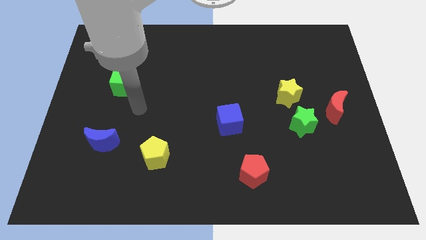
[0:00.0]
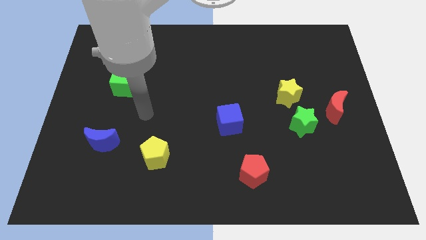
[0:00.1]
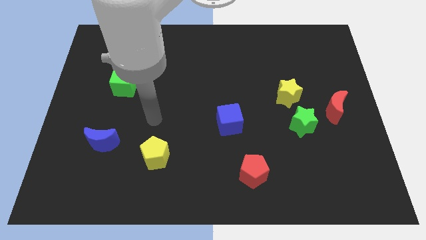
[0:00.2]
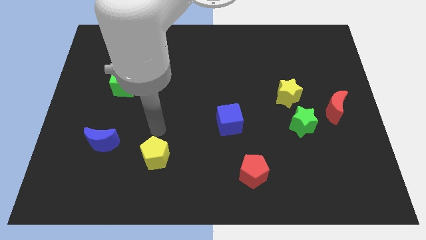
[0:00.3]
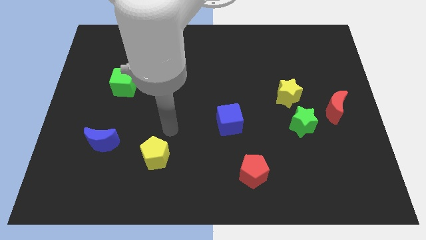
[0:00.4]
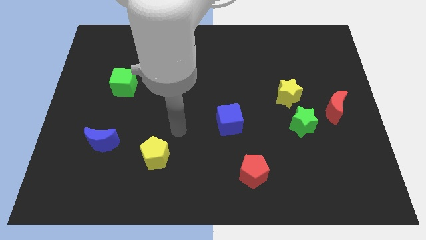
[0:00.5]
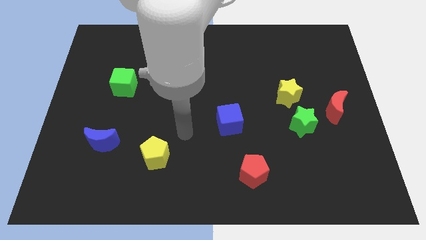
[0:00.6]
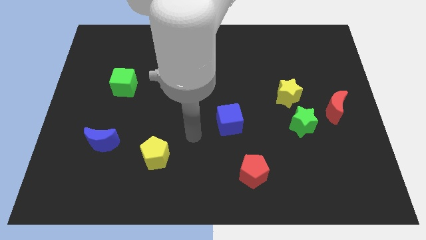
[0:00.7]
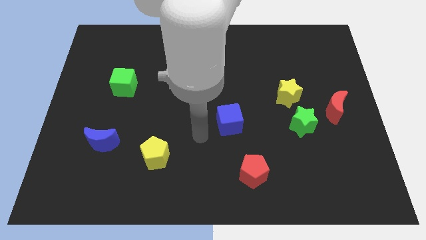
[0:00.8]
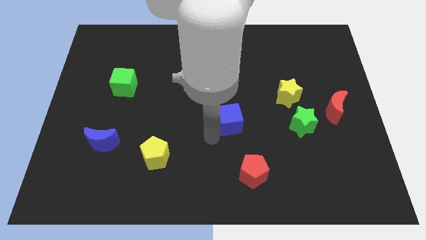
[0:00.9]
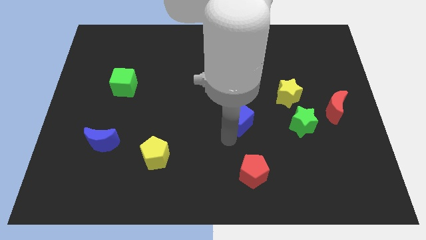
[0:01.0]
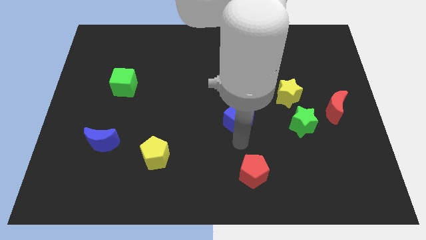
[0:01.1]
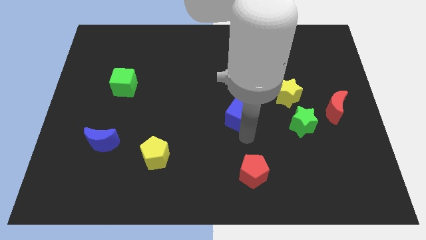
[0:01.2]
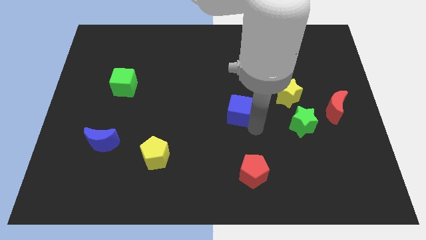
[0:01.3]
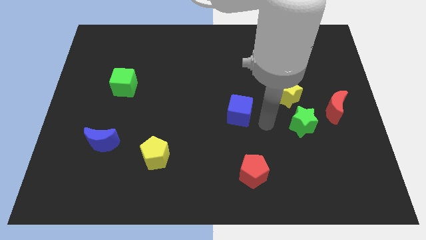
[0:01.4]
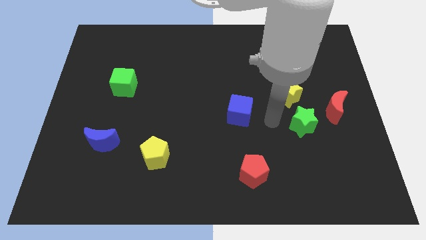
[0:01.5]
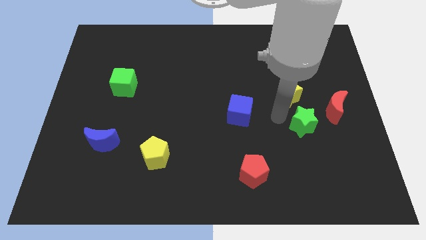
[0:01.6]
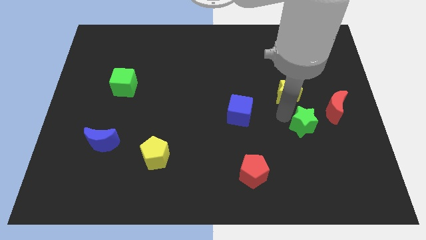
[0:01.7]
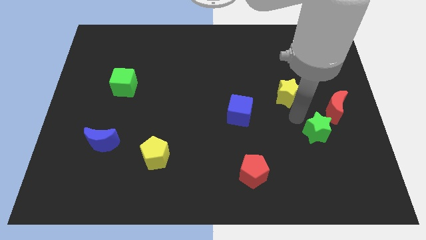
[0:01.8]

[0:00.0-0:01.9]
separate the yellow star from the green star

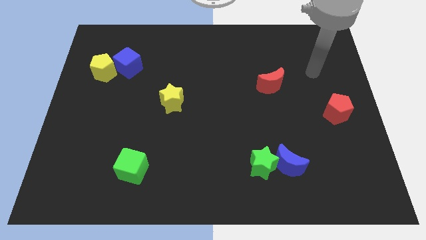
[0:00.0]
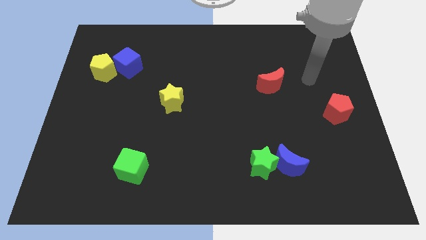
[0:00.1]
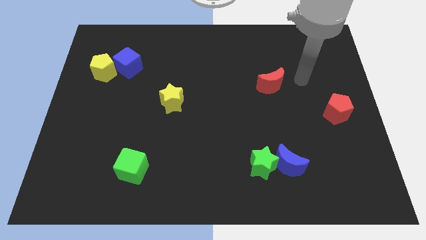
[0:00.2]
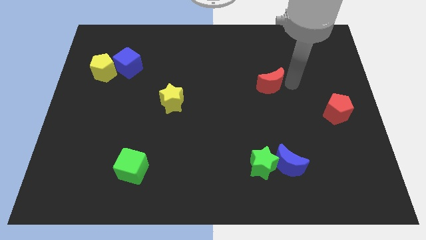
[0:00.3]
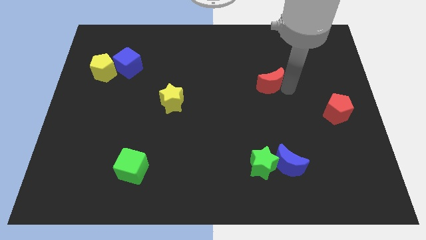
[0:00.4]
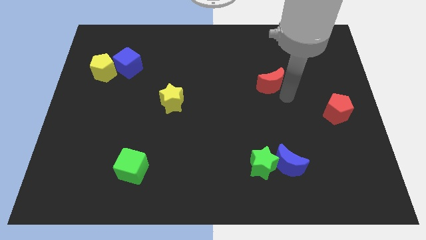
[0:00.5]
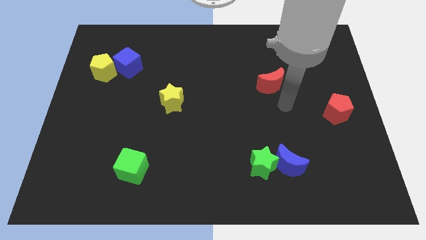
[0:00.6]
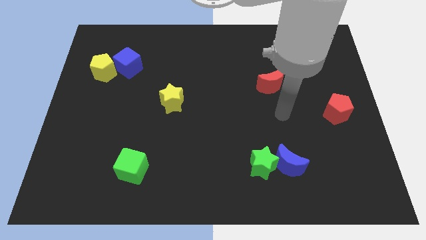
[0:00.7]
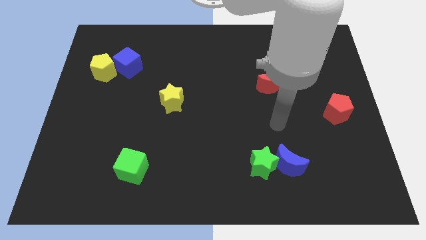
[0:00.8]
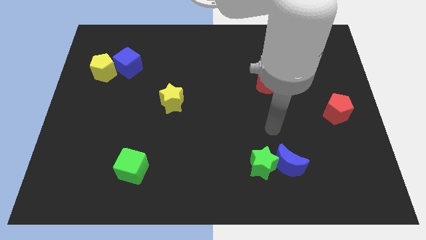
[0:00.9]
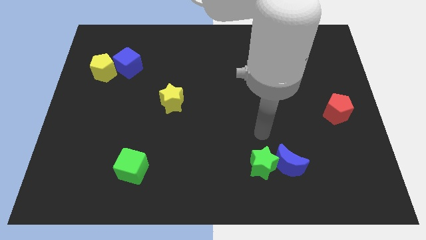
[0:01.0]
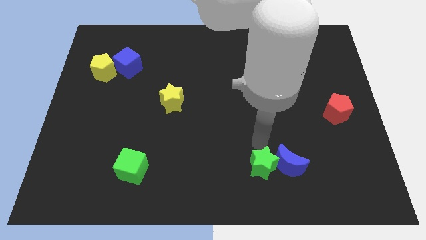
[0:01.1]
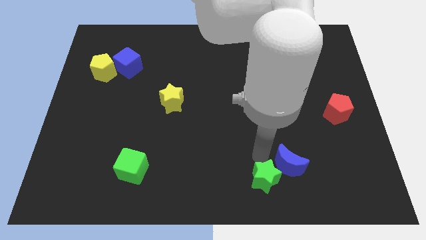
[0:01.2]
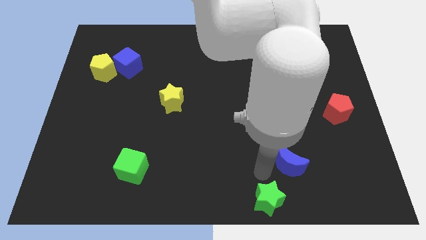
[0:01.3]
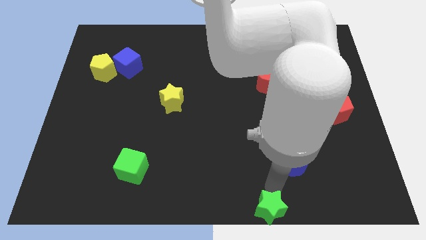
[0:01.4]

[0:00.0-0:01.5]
move the blue moon away from the green star

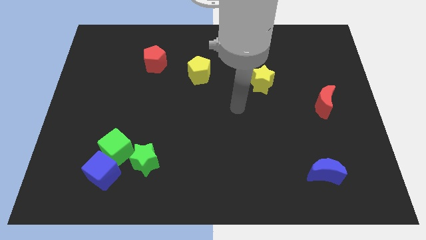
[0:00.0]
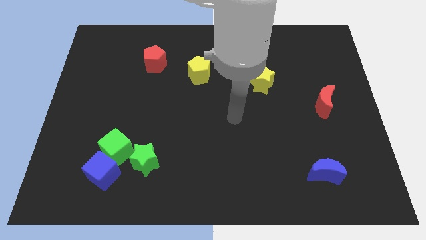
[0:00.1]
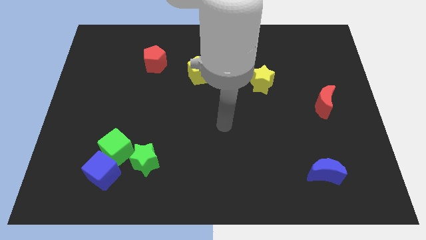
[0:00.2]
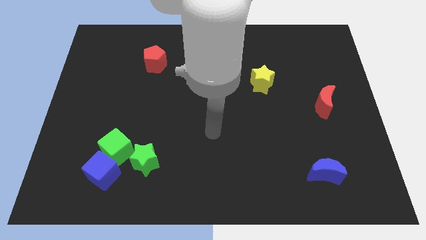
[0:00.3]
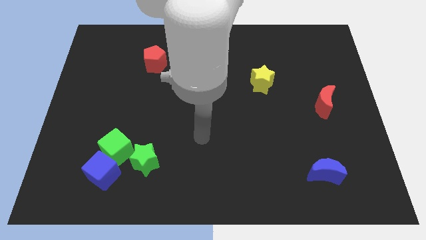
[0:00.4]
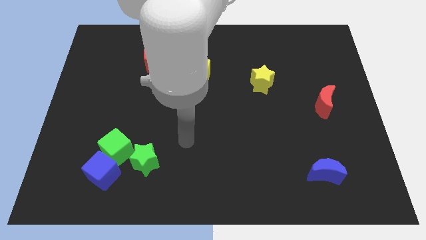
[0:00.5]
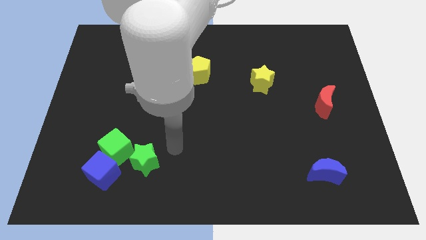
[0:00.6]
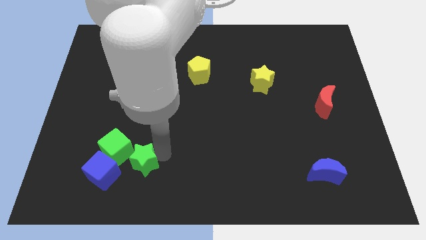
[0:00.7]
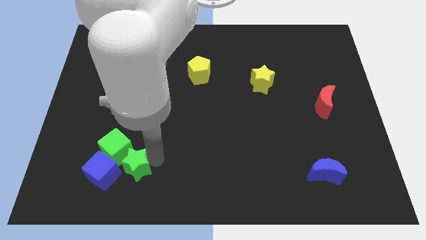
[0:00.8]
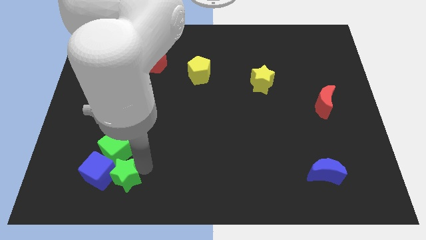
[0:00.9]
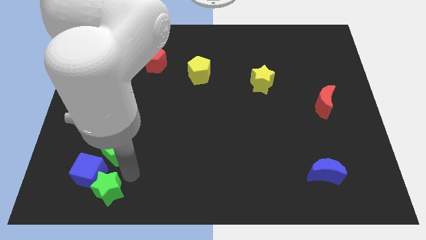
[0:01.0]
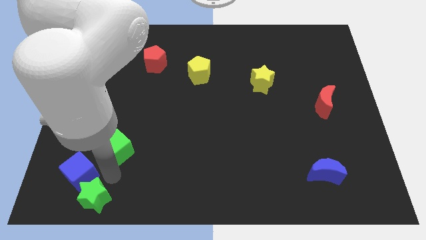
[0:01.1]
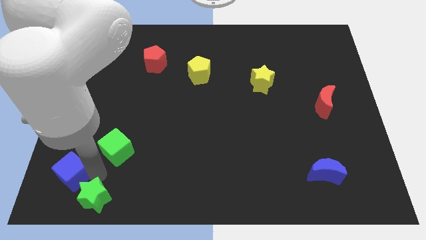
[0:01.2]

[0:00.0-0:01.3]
separate the green cube from the blue cube and green star

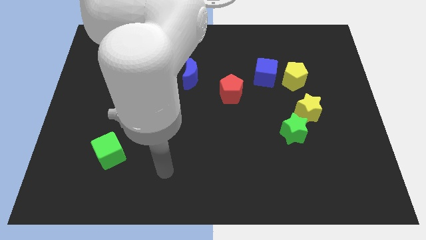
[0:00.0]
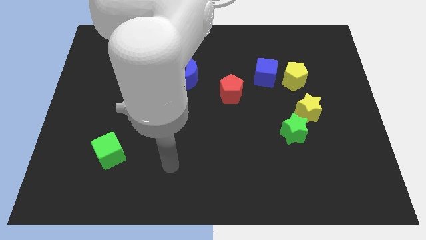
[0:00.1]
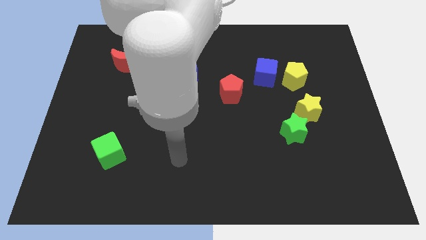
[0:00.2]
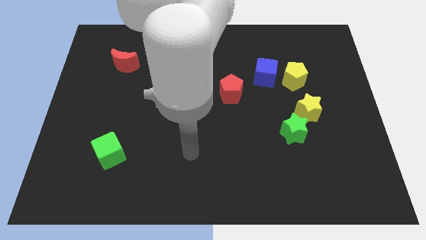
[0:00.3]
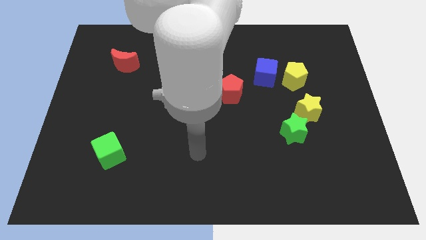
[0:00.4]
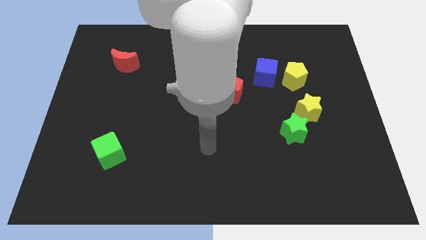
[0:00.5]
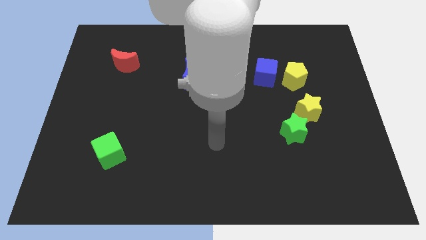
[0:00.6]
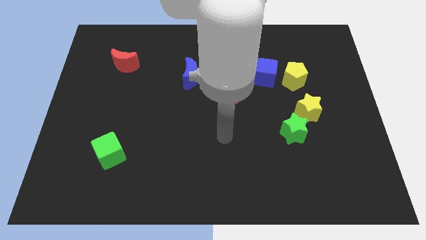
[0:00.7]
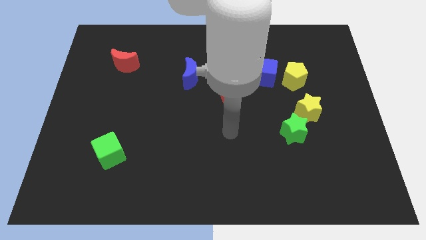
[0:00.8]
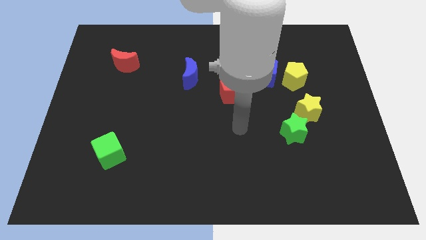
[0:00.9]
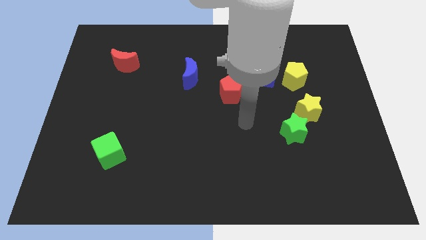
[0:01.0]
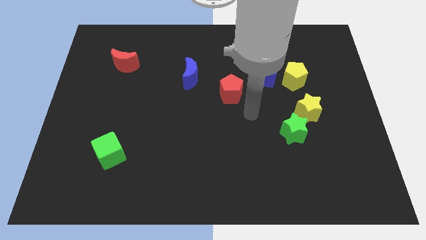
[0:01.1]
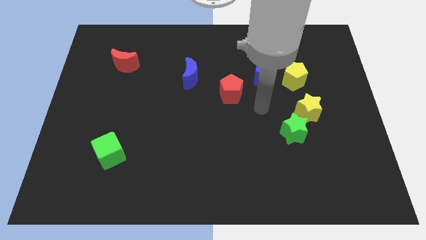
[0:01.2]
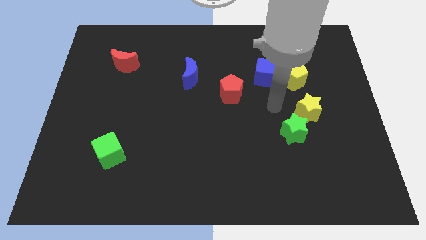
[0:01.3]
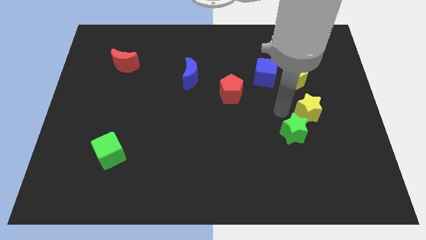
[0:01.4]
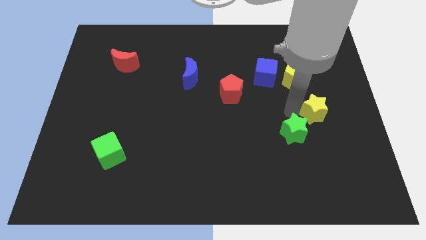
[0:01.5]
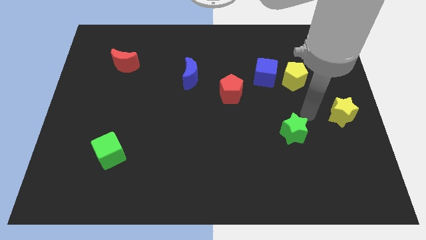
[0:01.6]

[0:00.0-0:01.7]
separate the green star from the yellow star

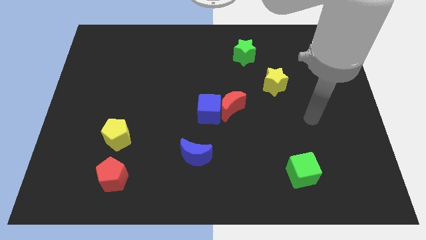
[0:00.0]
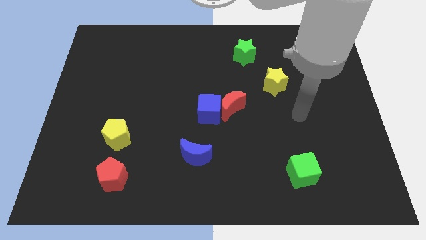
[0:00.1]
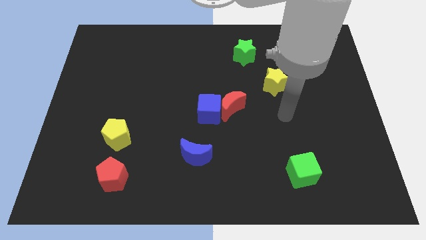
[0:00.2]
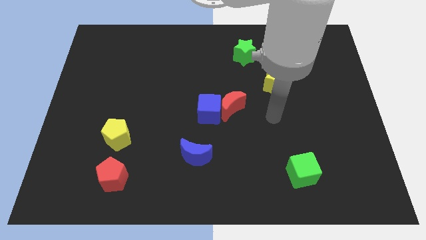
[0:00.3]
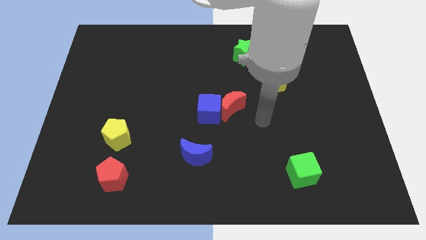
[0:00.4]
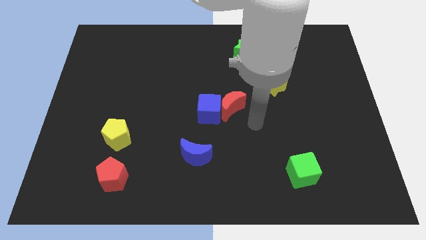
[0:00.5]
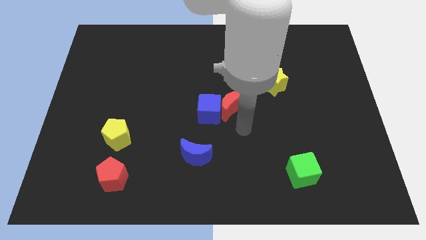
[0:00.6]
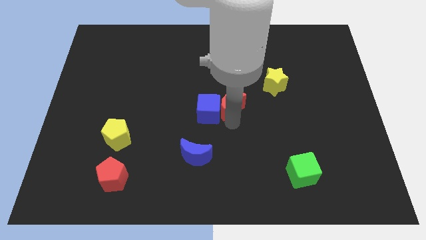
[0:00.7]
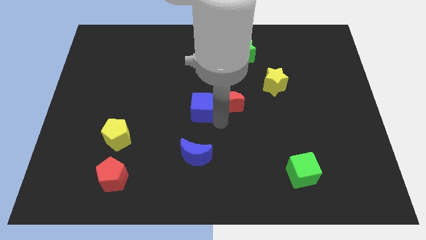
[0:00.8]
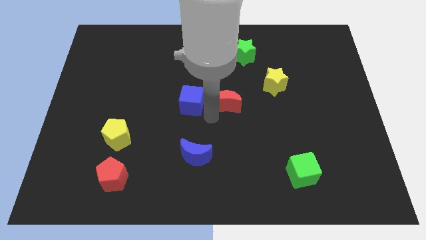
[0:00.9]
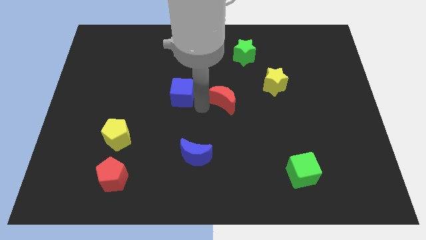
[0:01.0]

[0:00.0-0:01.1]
separate the red moon from the blue cube

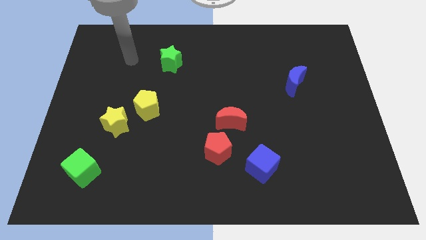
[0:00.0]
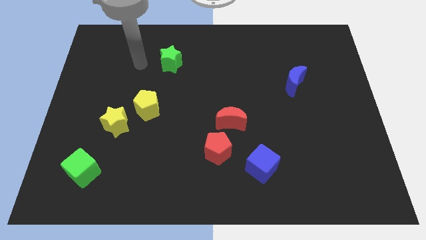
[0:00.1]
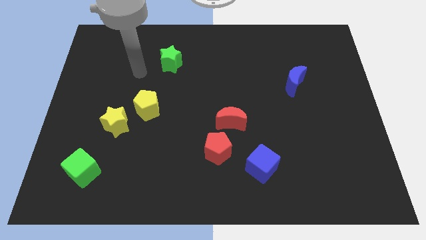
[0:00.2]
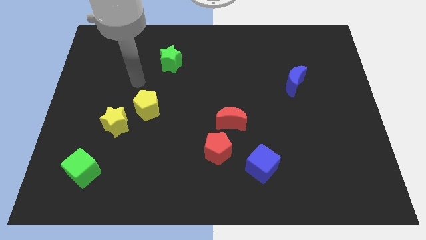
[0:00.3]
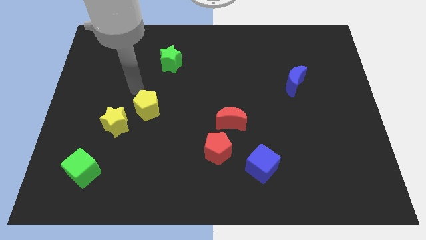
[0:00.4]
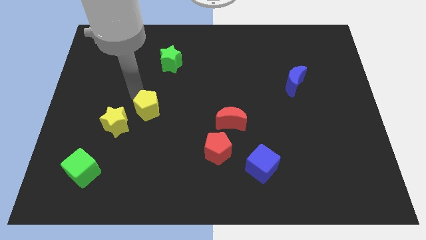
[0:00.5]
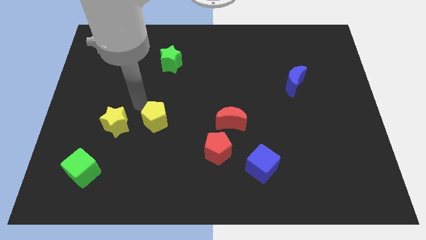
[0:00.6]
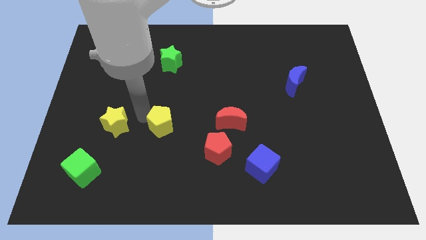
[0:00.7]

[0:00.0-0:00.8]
move the yellow star away from the yellow pentagon

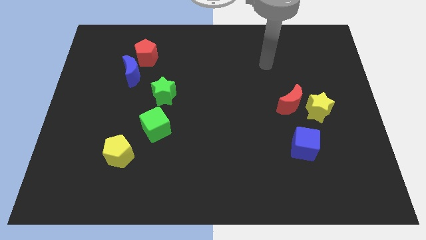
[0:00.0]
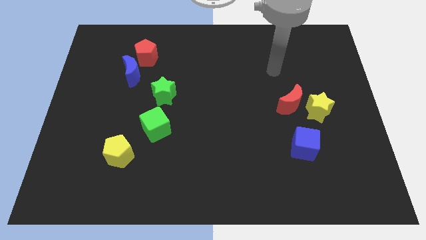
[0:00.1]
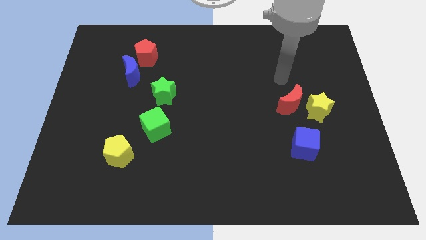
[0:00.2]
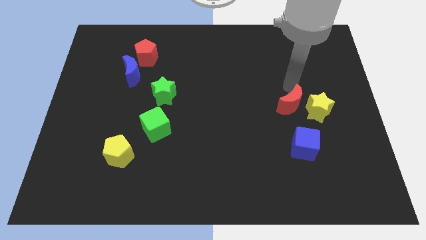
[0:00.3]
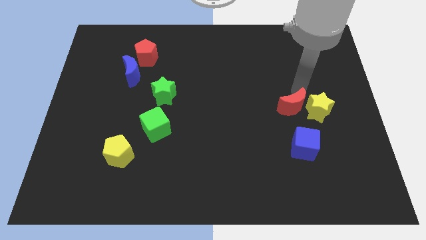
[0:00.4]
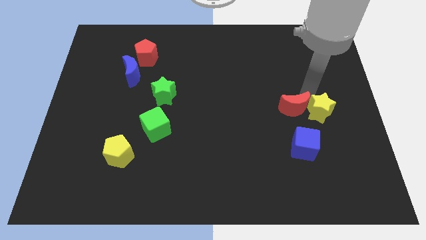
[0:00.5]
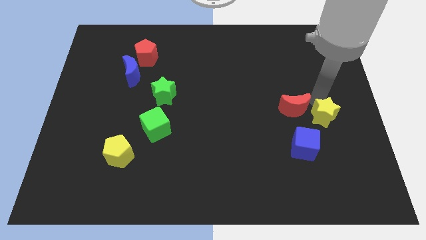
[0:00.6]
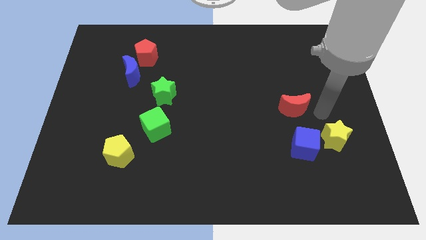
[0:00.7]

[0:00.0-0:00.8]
pull the red moon apart from the yellow star

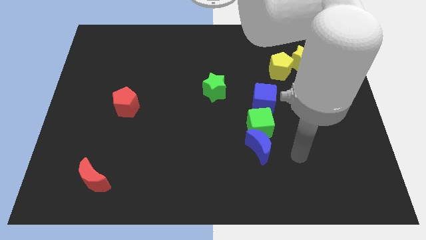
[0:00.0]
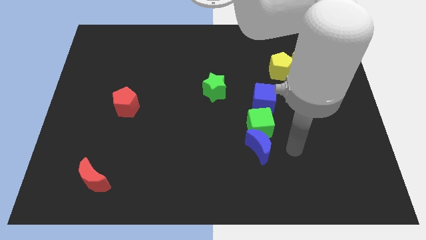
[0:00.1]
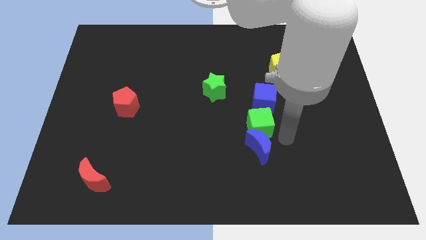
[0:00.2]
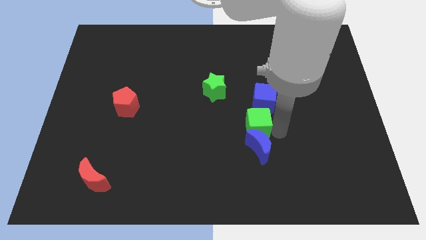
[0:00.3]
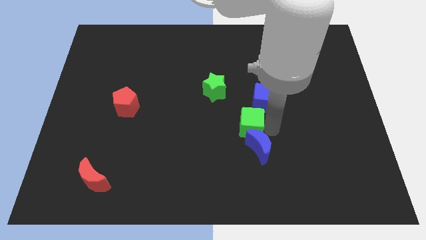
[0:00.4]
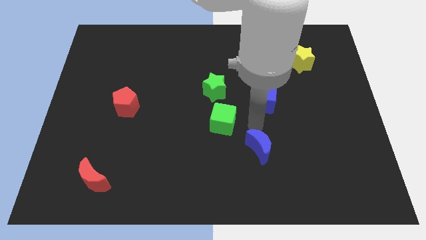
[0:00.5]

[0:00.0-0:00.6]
move the blue moon away from the green cube
